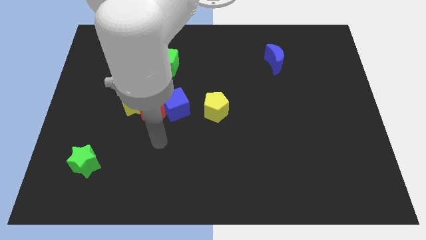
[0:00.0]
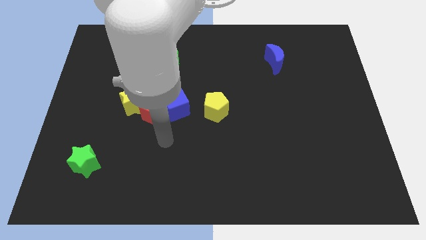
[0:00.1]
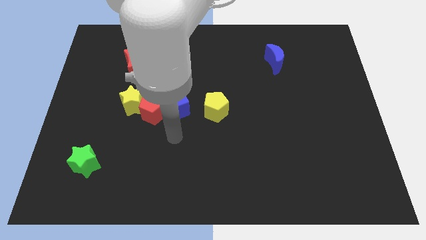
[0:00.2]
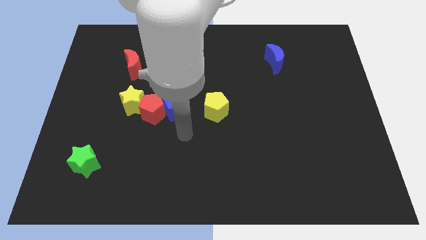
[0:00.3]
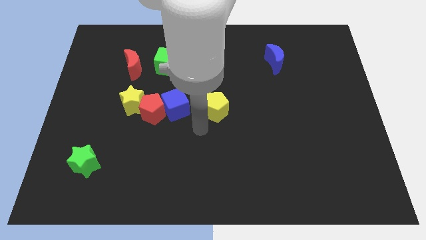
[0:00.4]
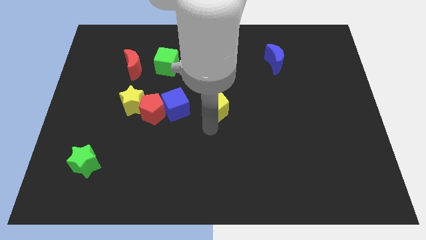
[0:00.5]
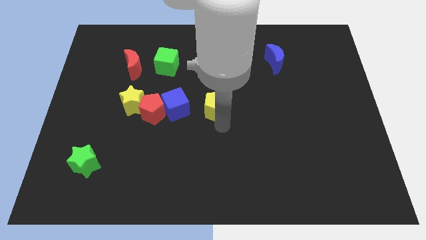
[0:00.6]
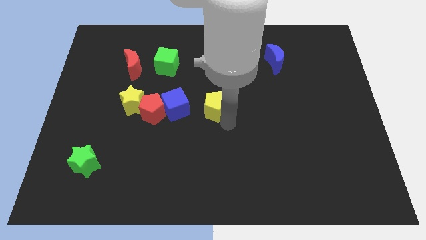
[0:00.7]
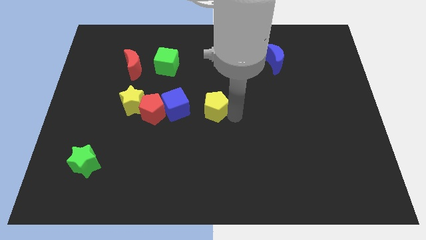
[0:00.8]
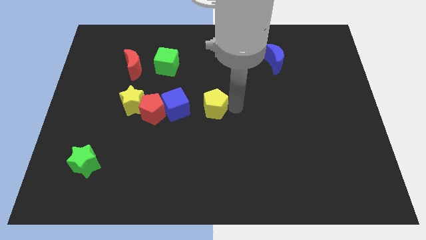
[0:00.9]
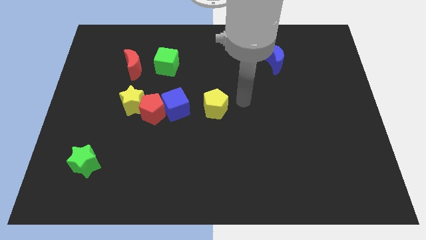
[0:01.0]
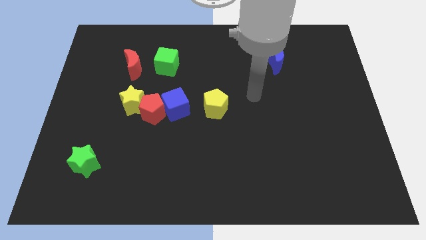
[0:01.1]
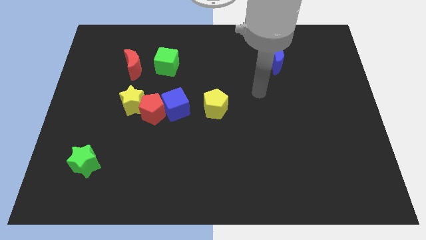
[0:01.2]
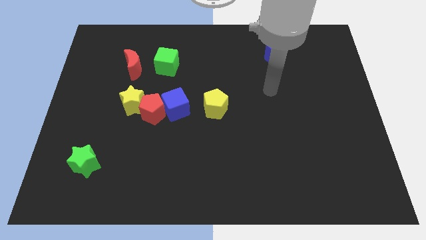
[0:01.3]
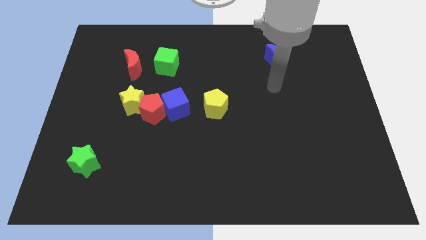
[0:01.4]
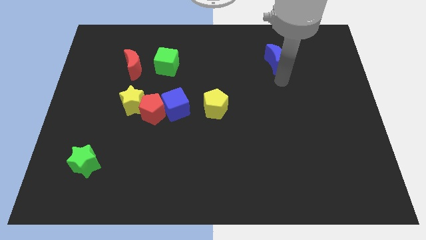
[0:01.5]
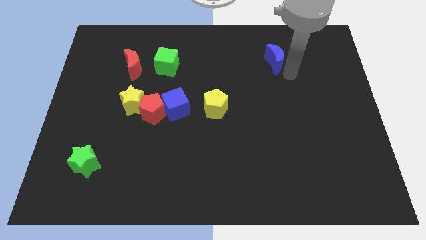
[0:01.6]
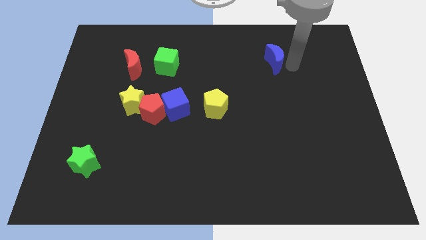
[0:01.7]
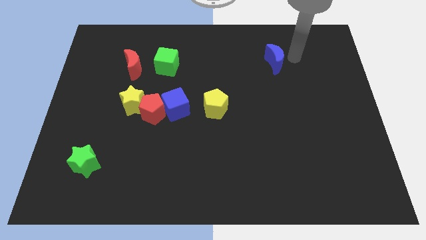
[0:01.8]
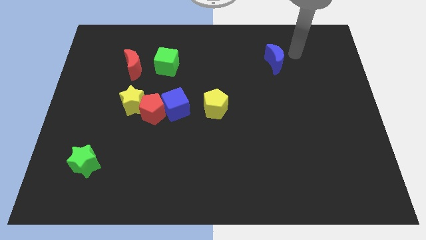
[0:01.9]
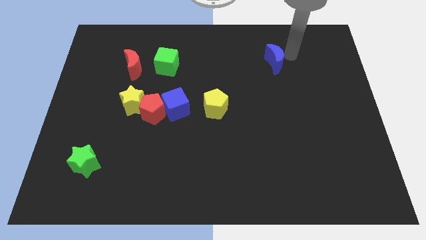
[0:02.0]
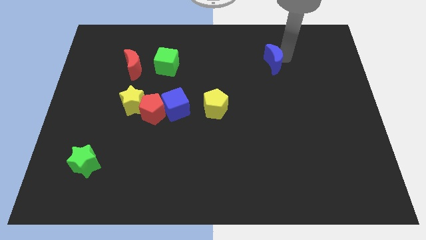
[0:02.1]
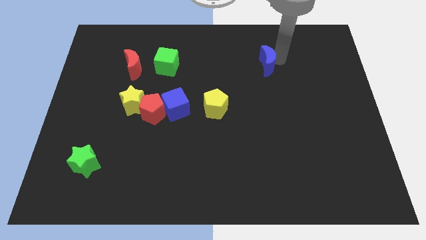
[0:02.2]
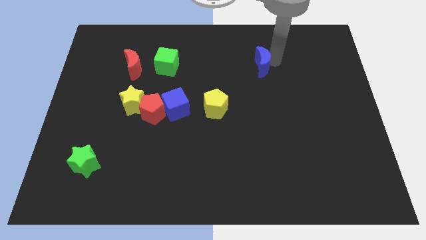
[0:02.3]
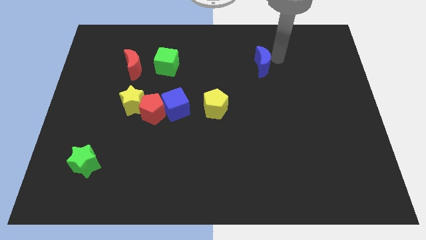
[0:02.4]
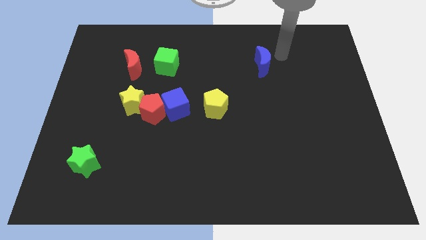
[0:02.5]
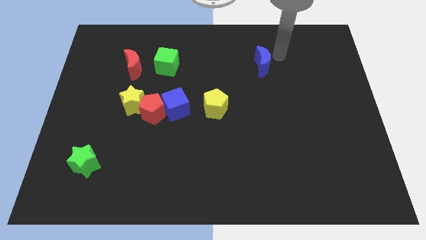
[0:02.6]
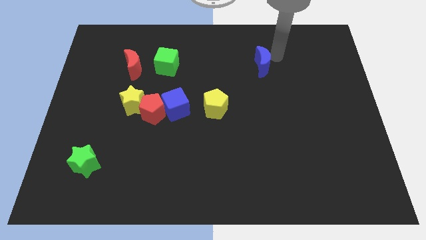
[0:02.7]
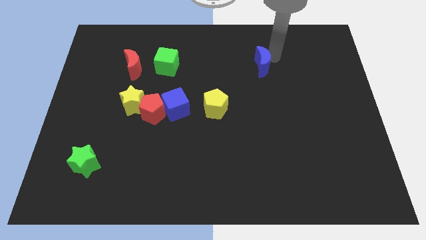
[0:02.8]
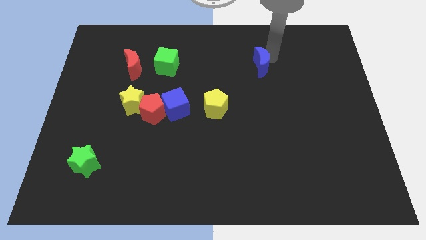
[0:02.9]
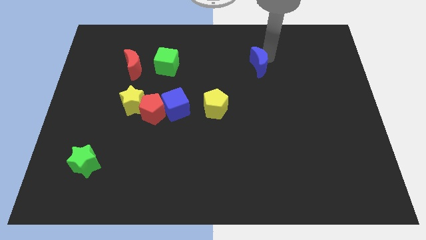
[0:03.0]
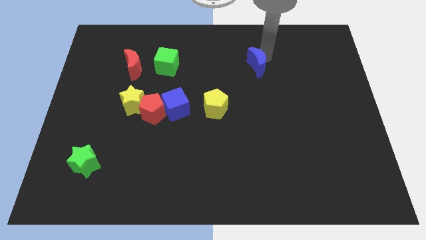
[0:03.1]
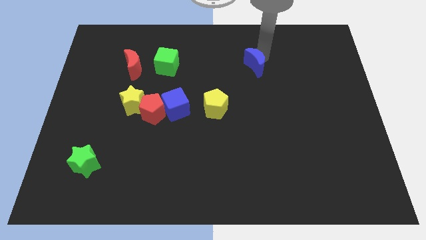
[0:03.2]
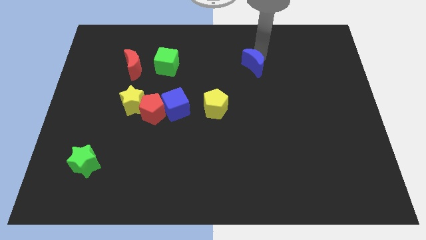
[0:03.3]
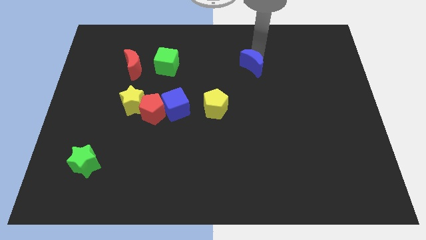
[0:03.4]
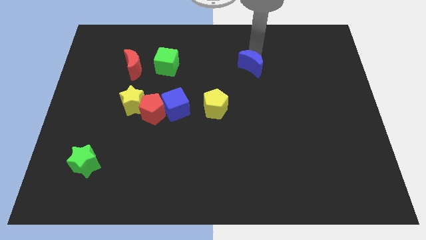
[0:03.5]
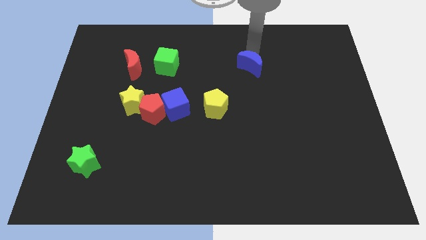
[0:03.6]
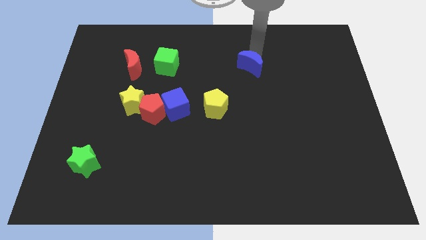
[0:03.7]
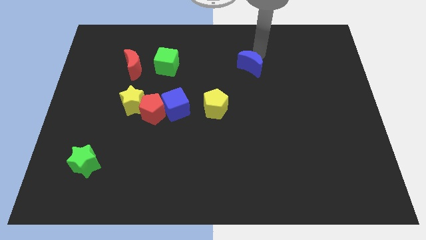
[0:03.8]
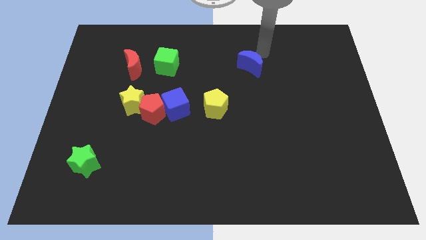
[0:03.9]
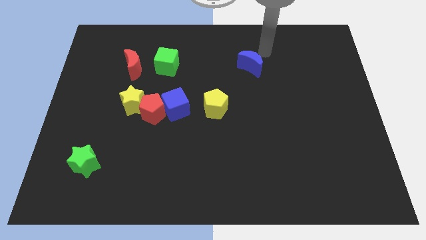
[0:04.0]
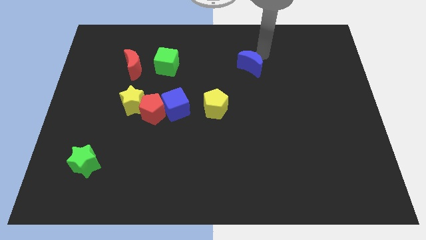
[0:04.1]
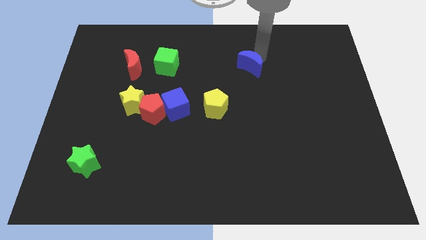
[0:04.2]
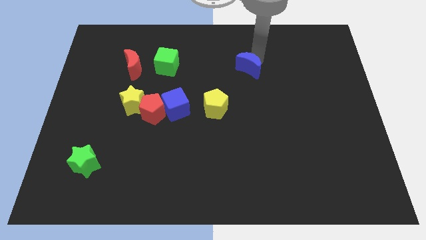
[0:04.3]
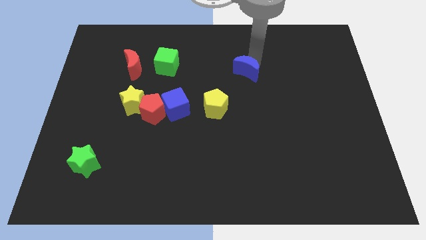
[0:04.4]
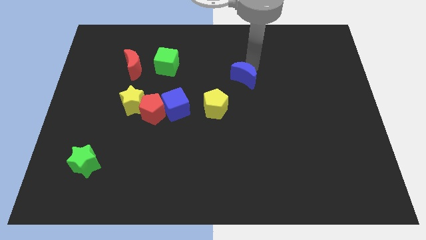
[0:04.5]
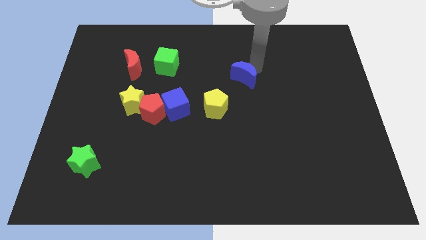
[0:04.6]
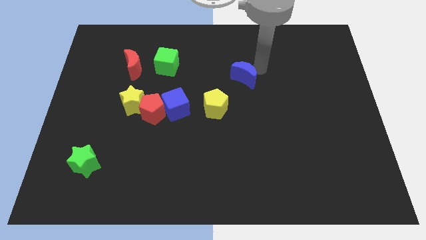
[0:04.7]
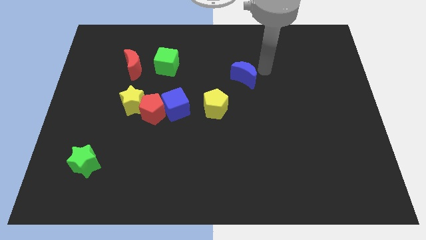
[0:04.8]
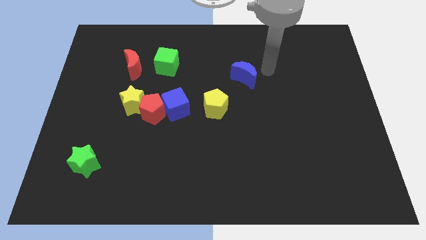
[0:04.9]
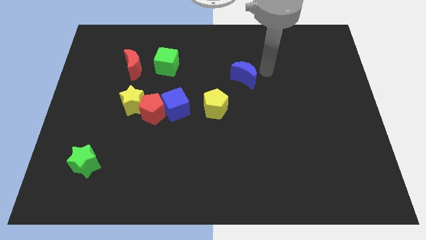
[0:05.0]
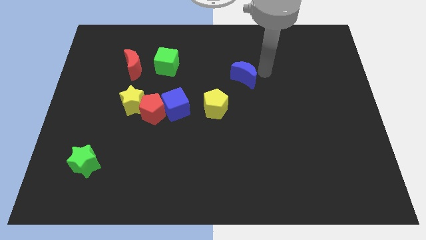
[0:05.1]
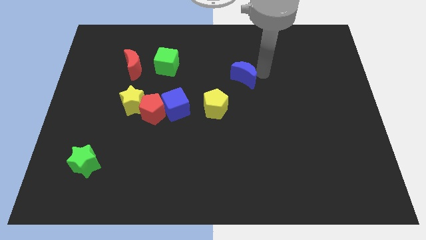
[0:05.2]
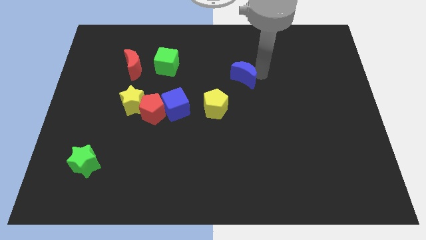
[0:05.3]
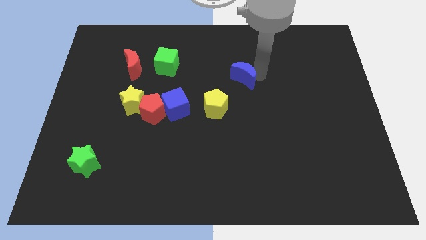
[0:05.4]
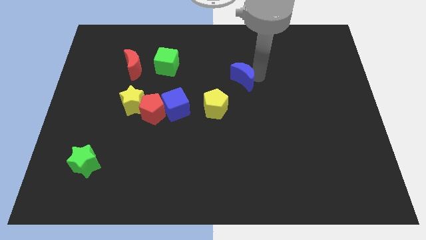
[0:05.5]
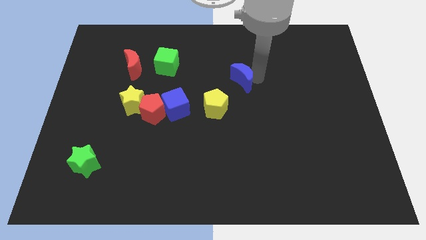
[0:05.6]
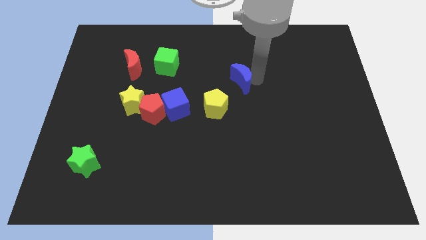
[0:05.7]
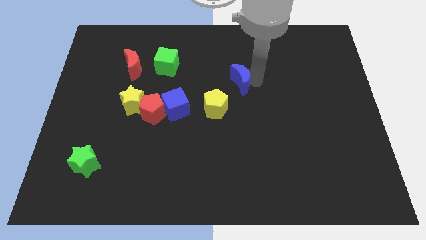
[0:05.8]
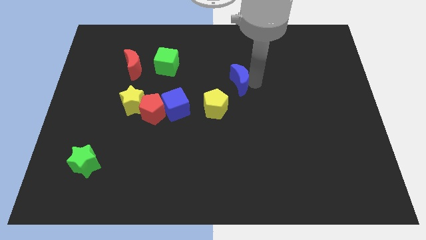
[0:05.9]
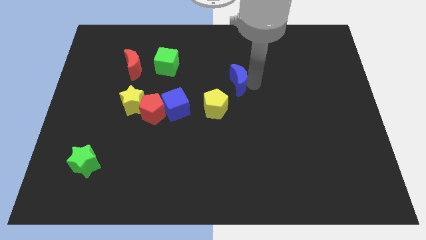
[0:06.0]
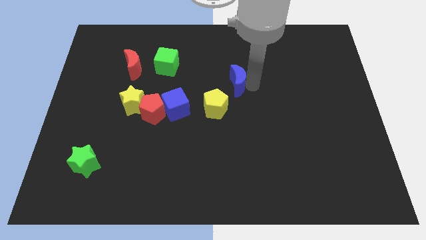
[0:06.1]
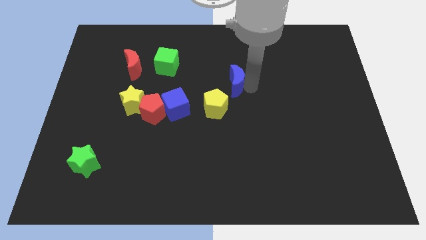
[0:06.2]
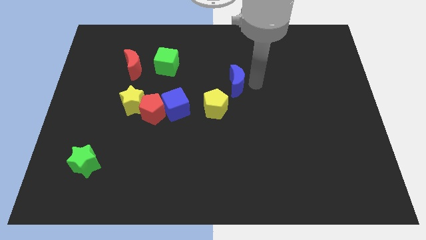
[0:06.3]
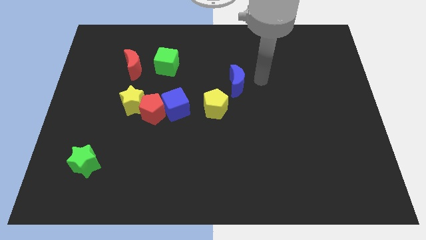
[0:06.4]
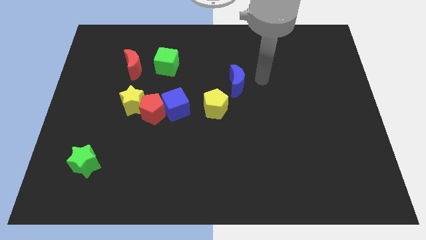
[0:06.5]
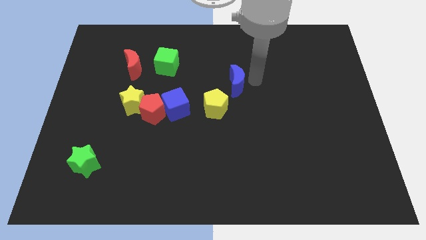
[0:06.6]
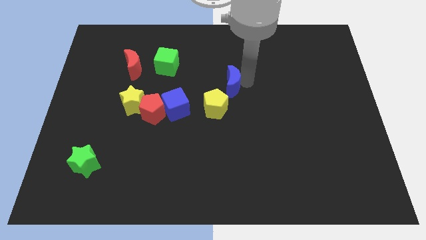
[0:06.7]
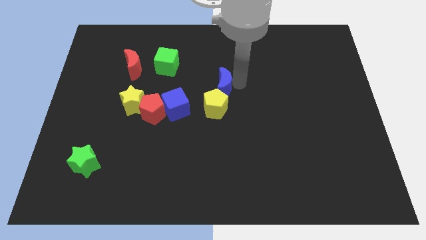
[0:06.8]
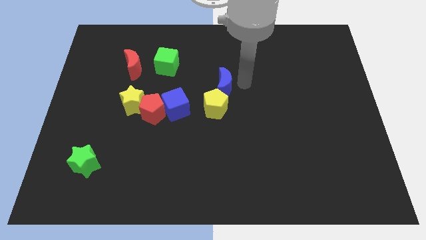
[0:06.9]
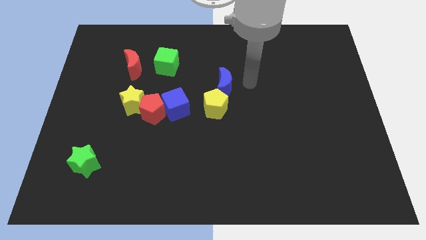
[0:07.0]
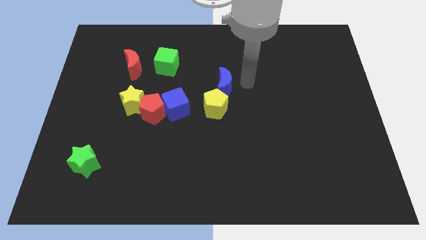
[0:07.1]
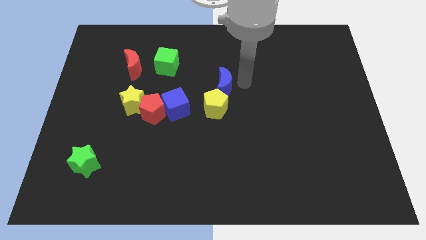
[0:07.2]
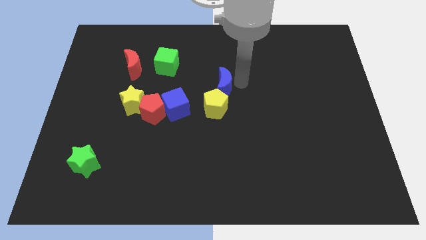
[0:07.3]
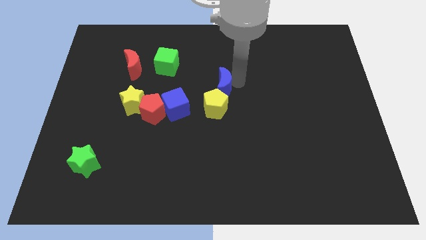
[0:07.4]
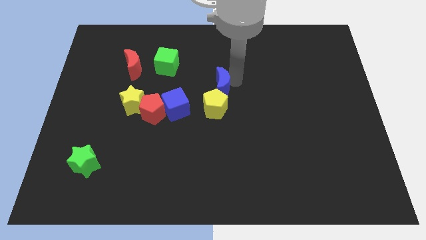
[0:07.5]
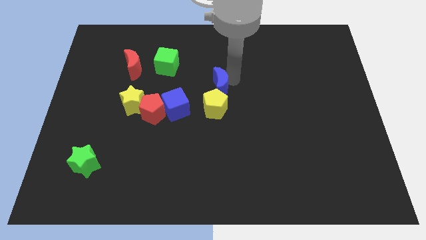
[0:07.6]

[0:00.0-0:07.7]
push the blue moon to the top right of the blue cube
